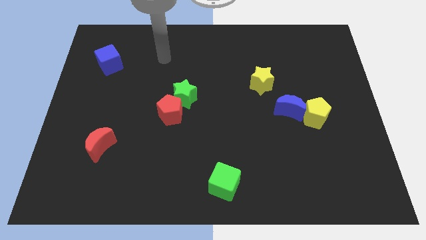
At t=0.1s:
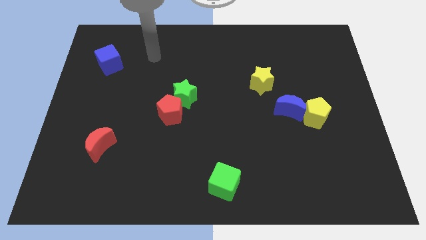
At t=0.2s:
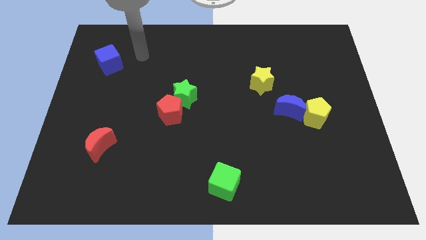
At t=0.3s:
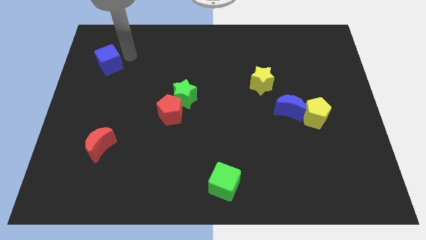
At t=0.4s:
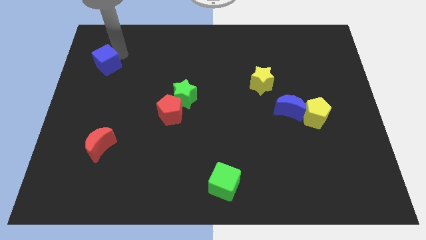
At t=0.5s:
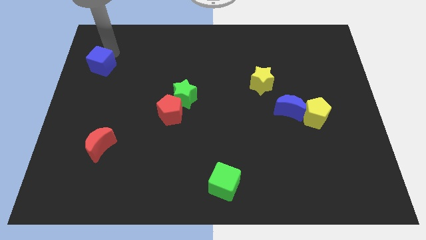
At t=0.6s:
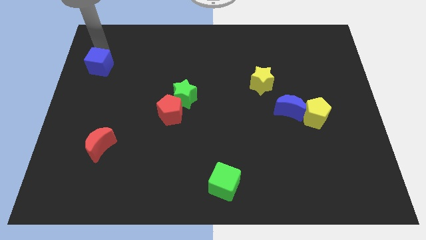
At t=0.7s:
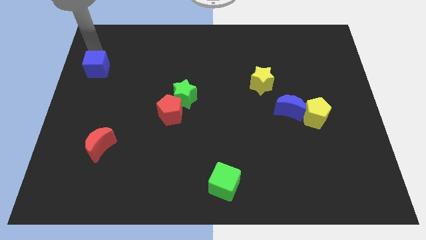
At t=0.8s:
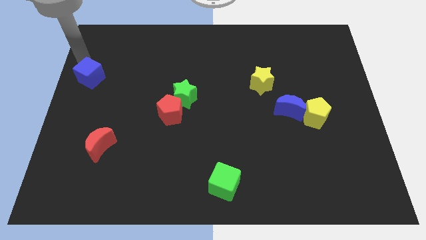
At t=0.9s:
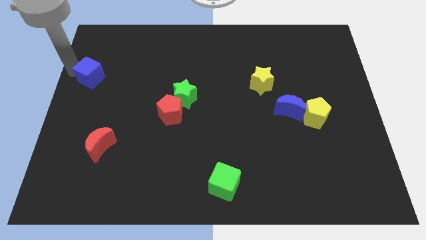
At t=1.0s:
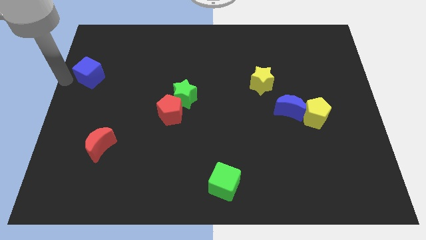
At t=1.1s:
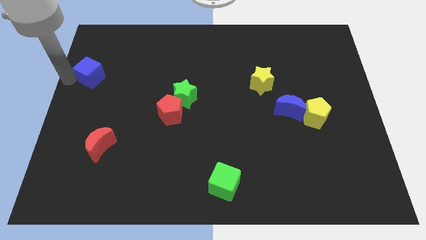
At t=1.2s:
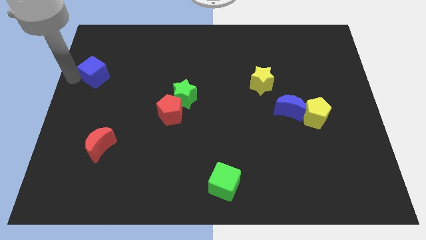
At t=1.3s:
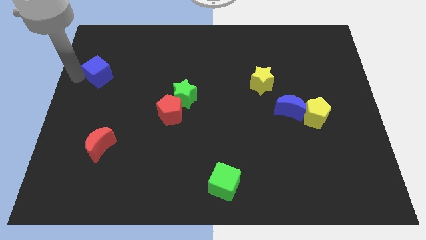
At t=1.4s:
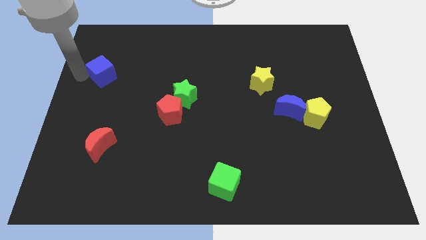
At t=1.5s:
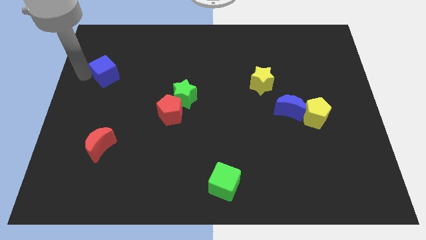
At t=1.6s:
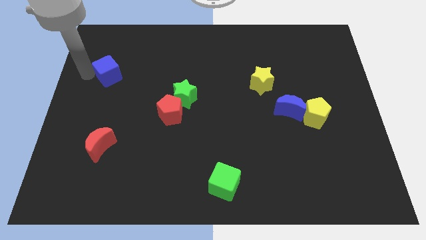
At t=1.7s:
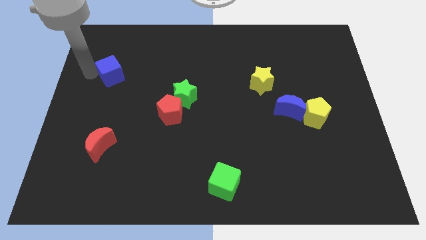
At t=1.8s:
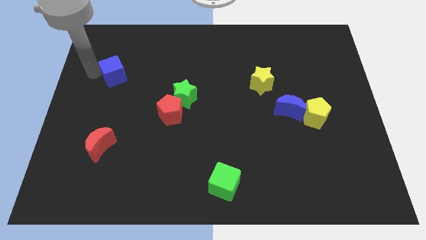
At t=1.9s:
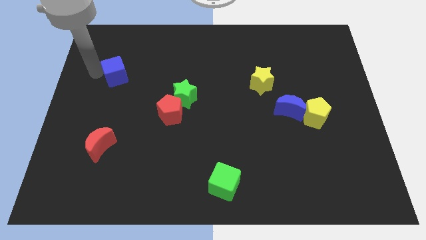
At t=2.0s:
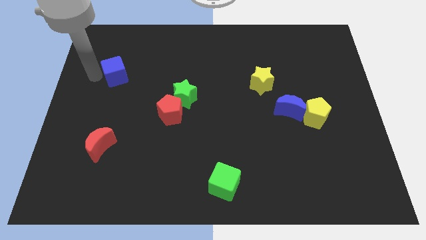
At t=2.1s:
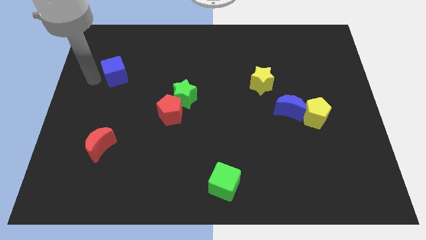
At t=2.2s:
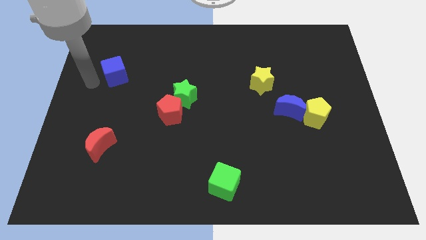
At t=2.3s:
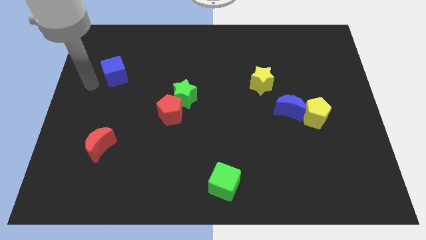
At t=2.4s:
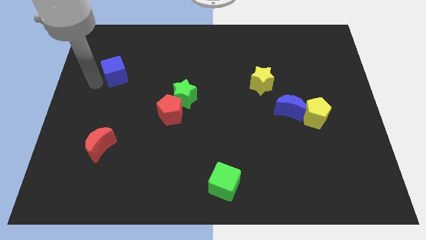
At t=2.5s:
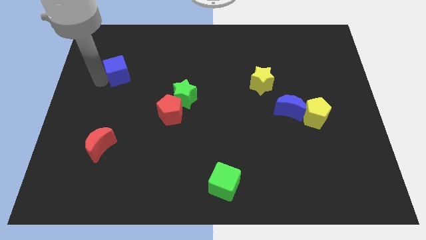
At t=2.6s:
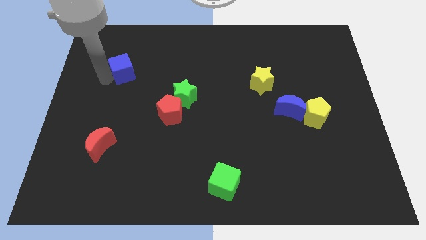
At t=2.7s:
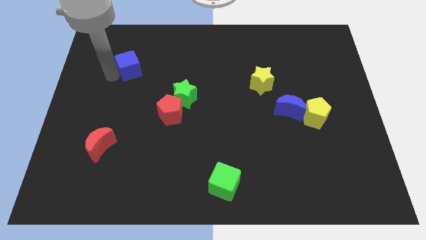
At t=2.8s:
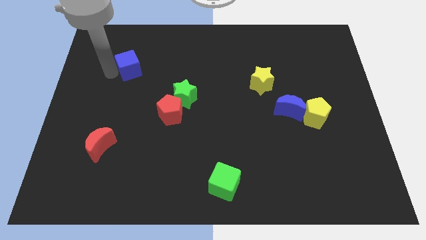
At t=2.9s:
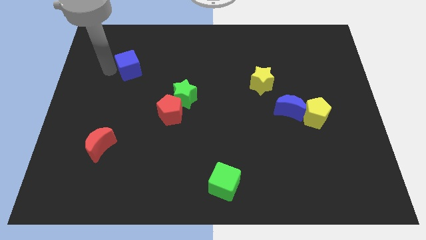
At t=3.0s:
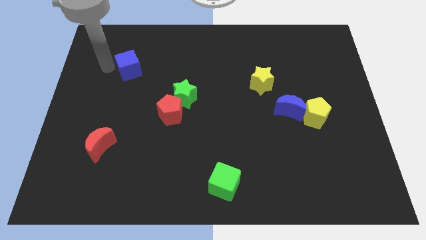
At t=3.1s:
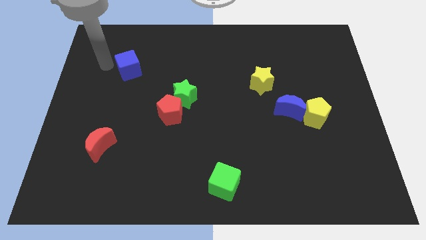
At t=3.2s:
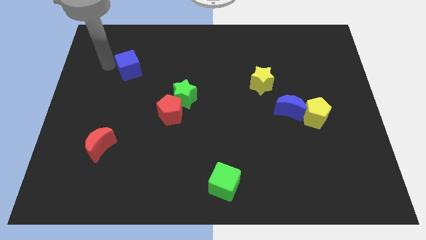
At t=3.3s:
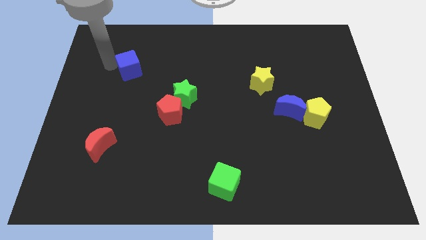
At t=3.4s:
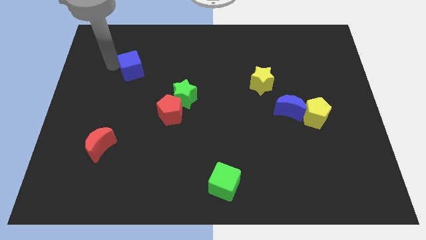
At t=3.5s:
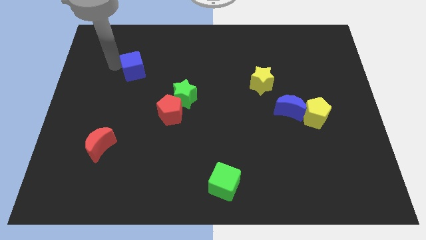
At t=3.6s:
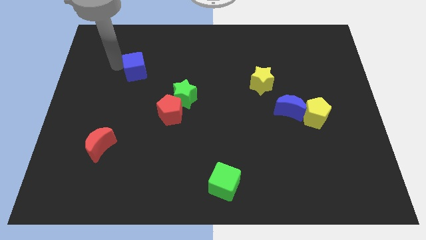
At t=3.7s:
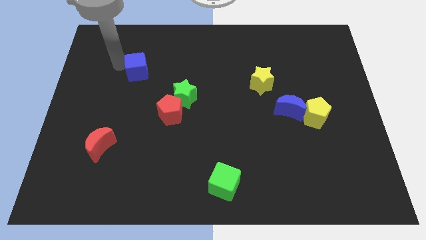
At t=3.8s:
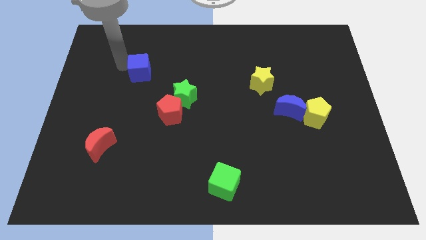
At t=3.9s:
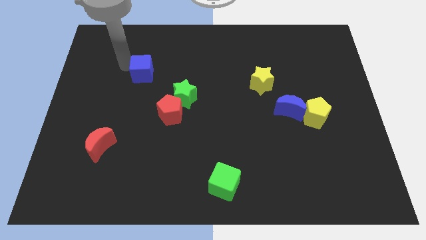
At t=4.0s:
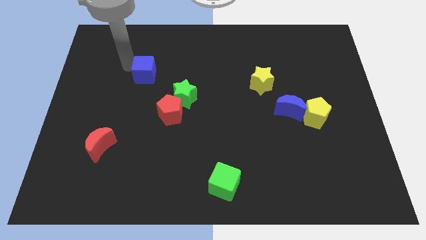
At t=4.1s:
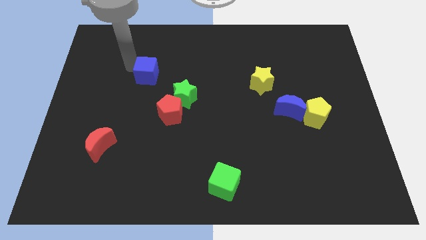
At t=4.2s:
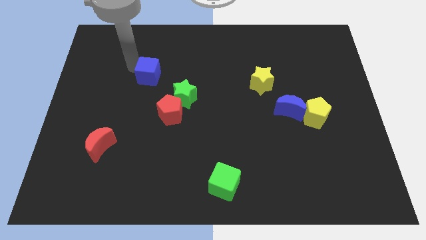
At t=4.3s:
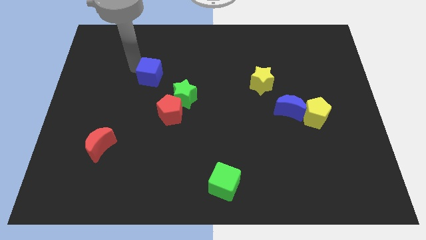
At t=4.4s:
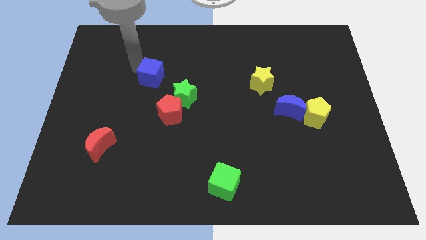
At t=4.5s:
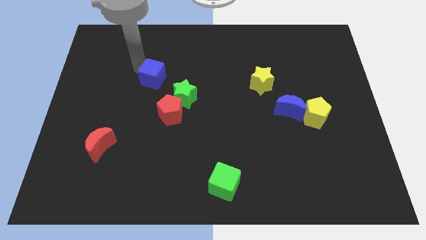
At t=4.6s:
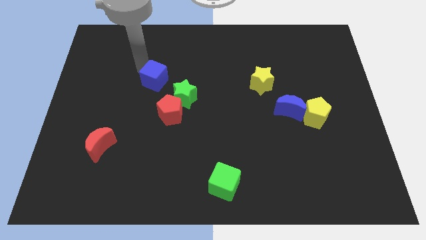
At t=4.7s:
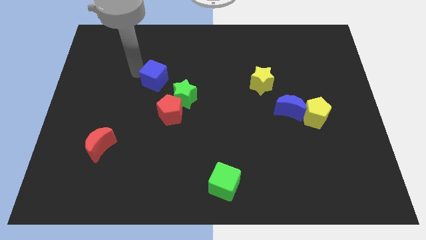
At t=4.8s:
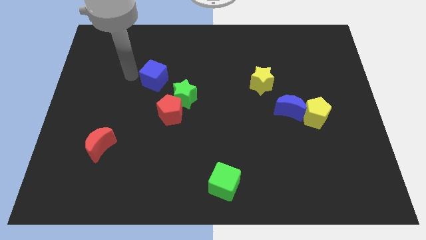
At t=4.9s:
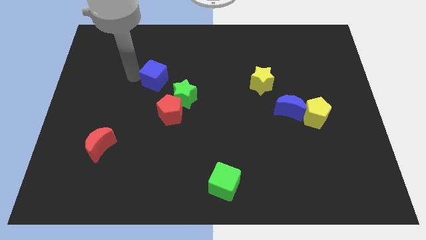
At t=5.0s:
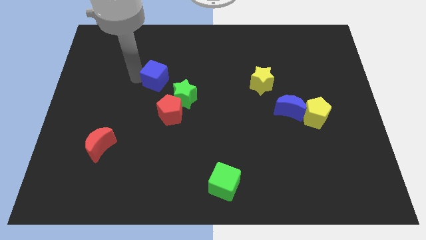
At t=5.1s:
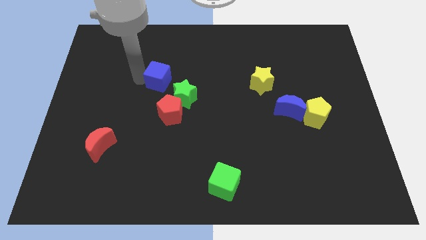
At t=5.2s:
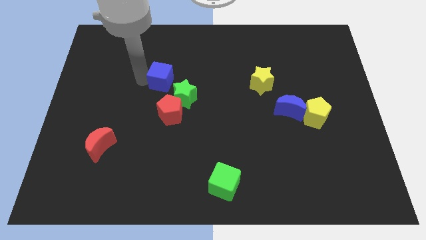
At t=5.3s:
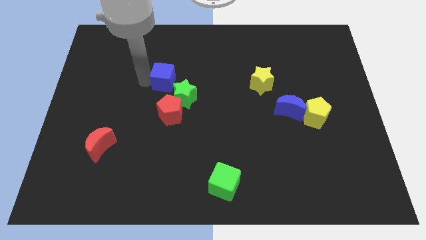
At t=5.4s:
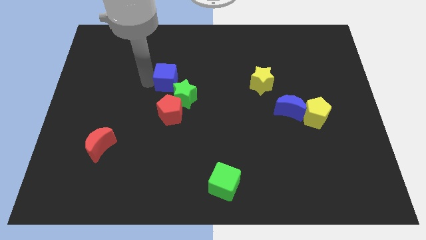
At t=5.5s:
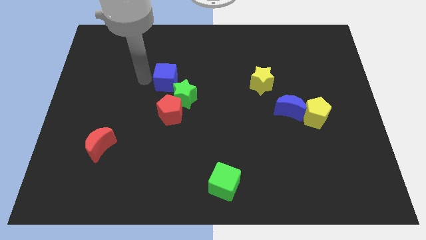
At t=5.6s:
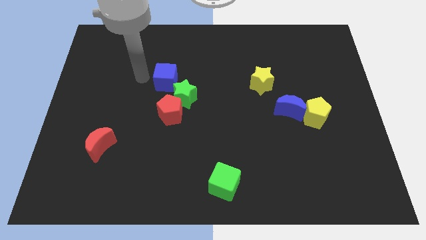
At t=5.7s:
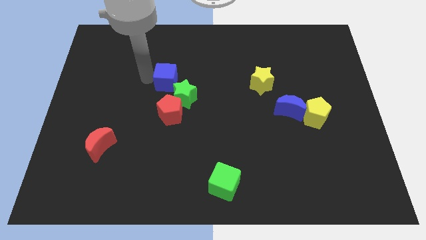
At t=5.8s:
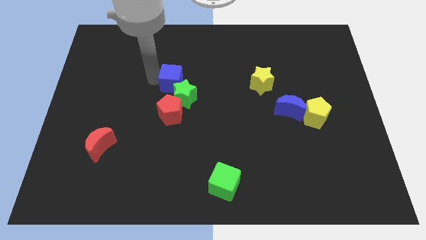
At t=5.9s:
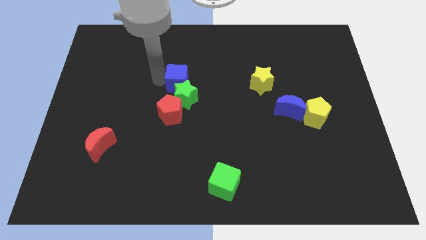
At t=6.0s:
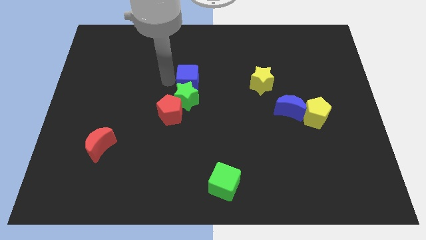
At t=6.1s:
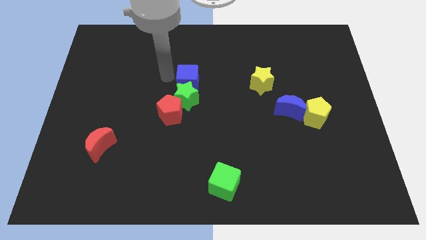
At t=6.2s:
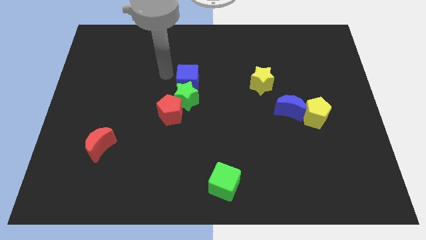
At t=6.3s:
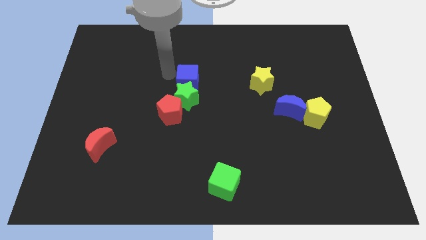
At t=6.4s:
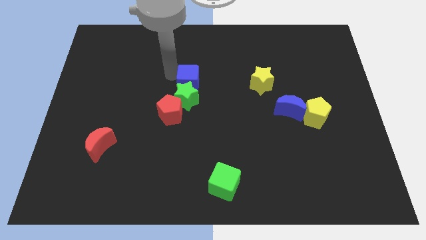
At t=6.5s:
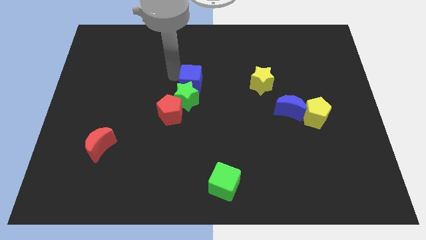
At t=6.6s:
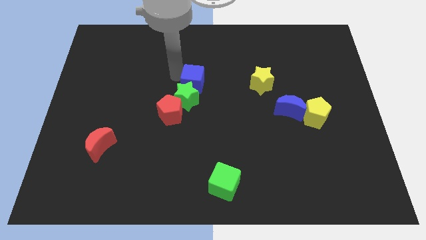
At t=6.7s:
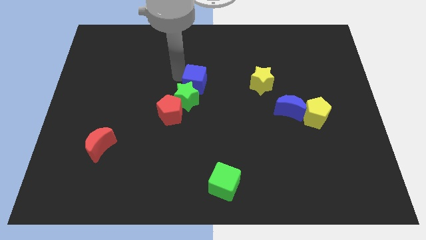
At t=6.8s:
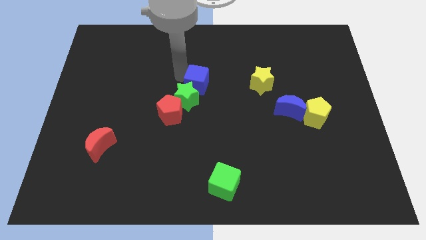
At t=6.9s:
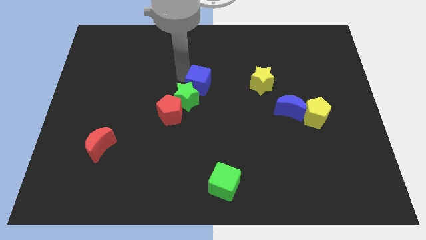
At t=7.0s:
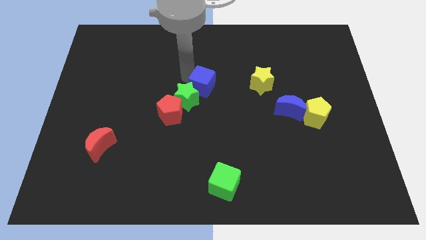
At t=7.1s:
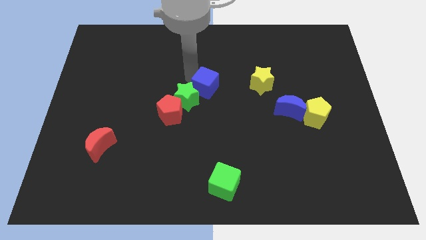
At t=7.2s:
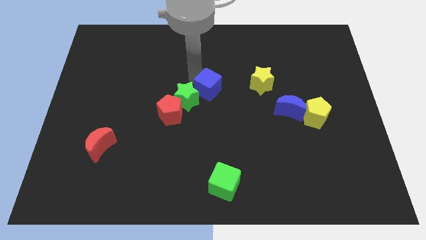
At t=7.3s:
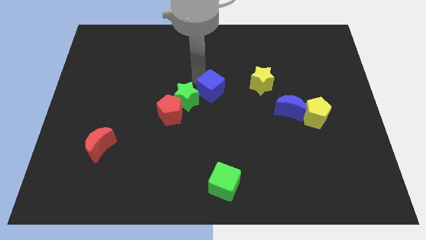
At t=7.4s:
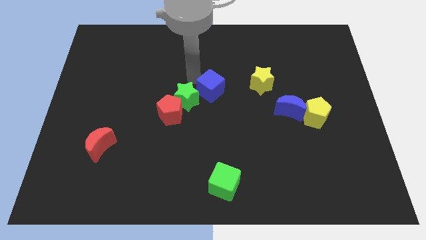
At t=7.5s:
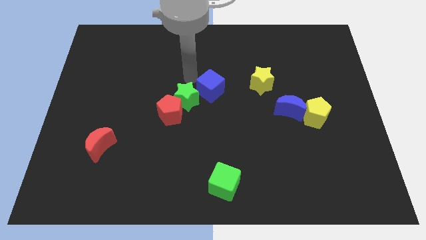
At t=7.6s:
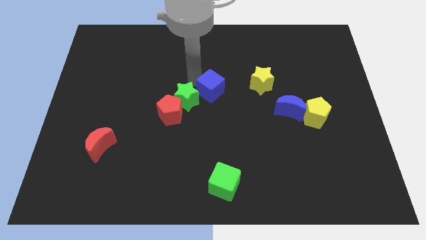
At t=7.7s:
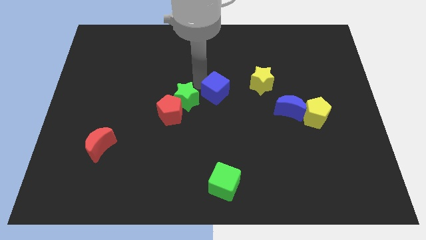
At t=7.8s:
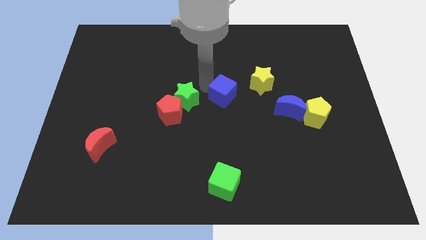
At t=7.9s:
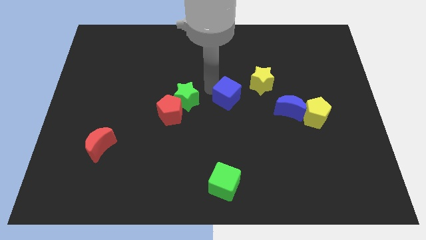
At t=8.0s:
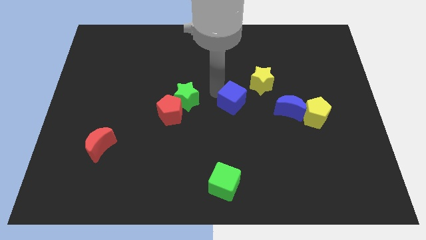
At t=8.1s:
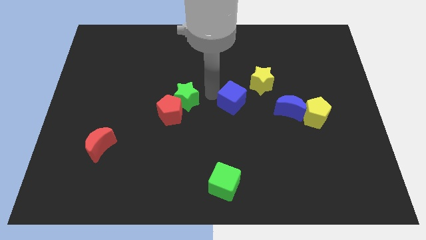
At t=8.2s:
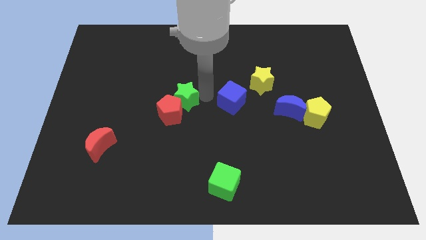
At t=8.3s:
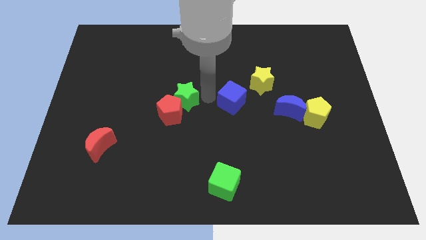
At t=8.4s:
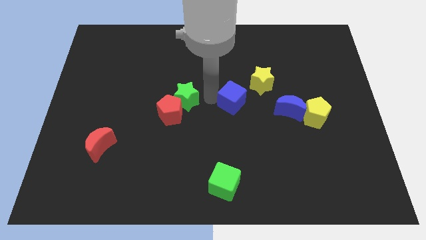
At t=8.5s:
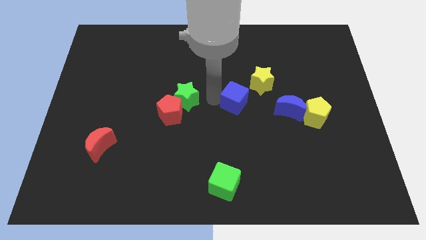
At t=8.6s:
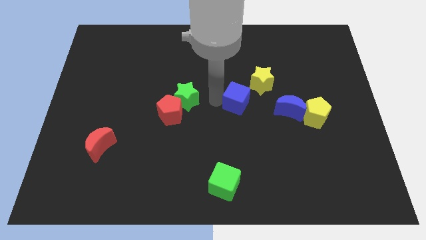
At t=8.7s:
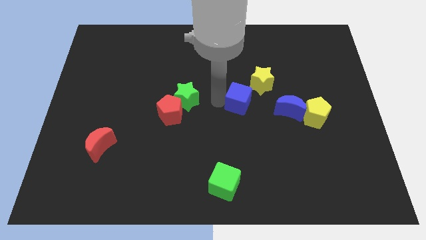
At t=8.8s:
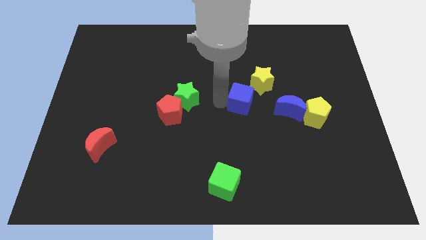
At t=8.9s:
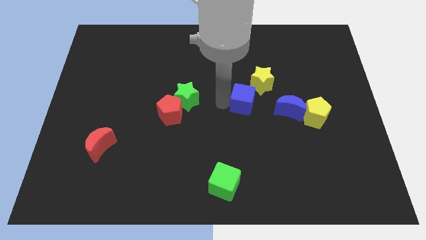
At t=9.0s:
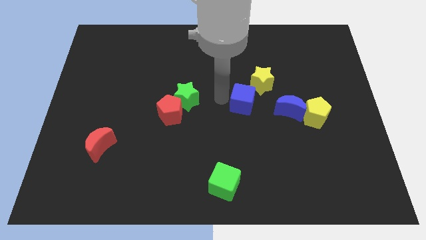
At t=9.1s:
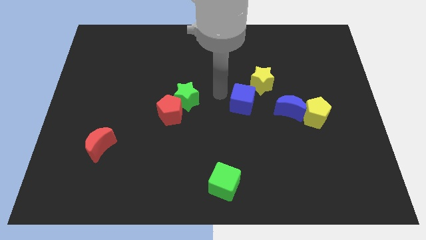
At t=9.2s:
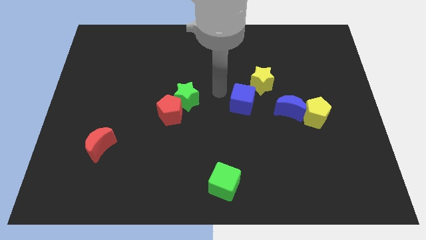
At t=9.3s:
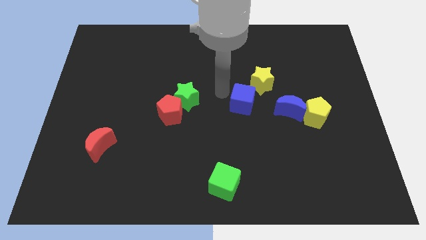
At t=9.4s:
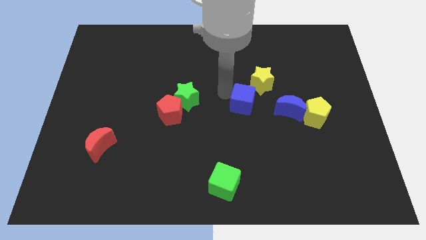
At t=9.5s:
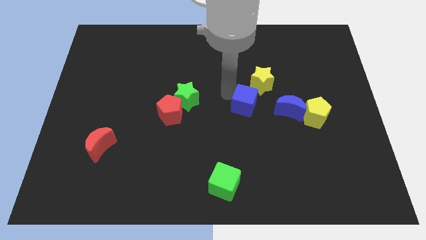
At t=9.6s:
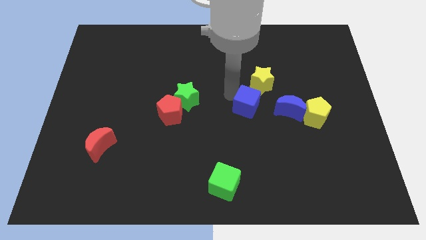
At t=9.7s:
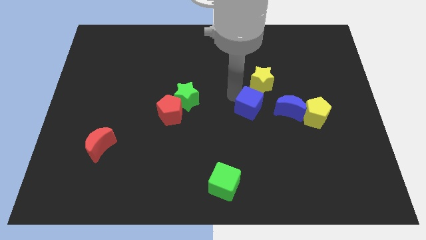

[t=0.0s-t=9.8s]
push the blue cube left of the yellow pentagon
